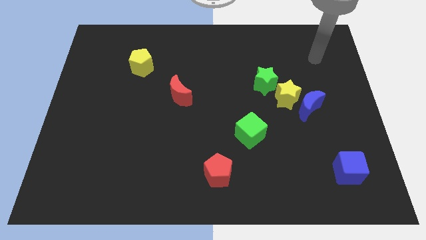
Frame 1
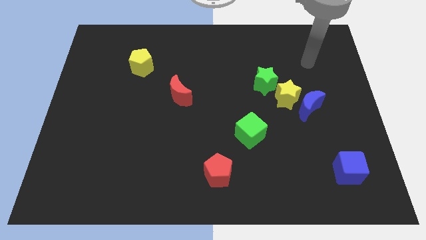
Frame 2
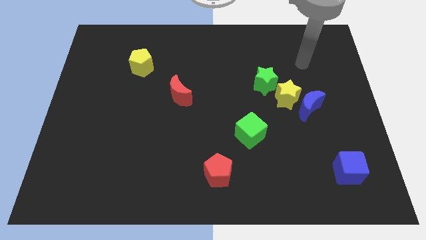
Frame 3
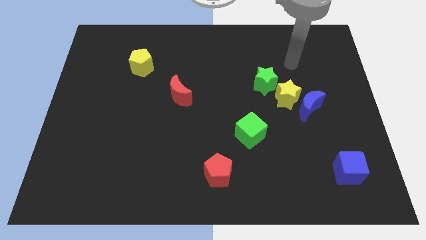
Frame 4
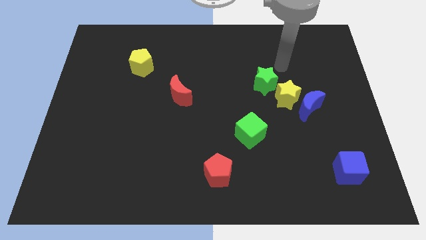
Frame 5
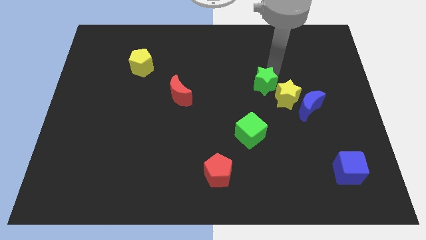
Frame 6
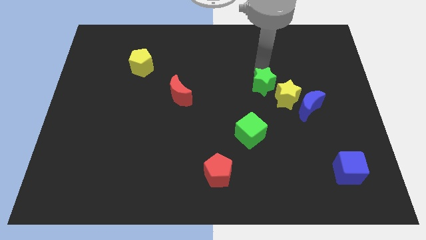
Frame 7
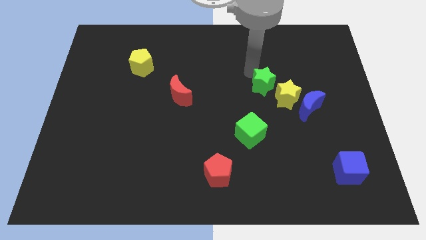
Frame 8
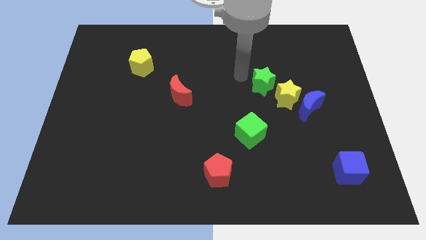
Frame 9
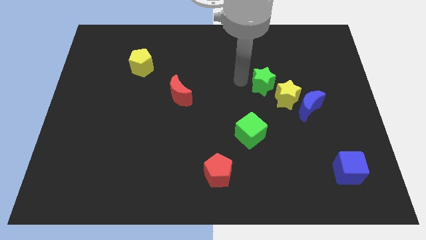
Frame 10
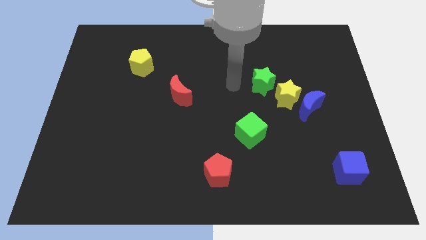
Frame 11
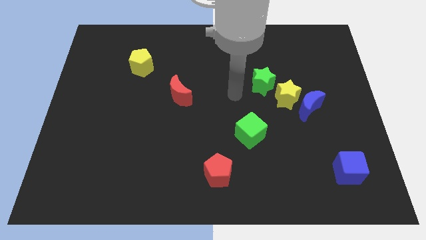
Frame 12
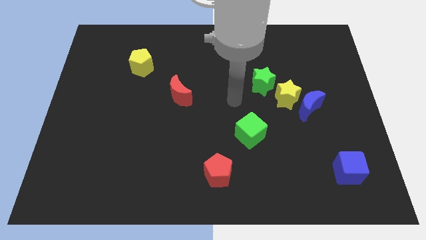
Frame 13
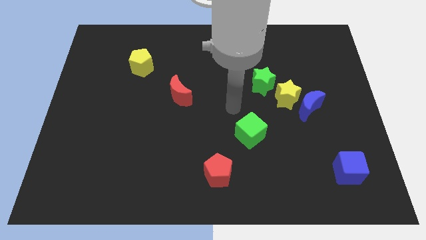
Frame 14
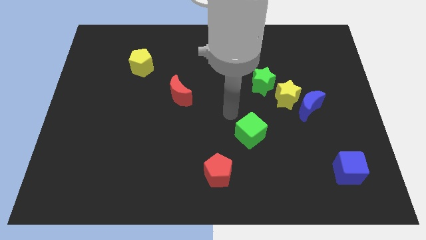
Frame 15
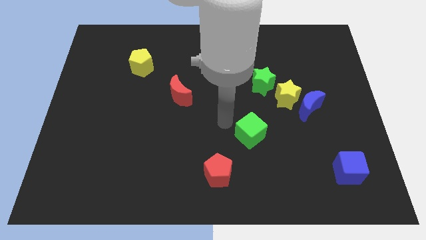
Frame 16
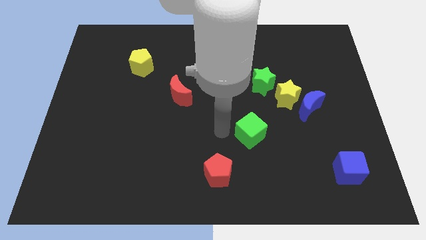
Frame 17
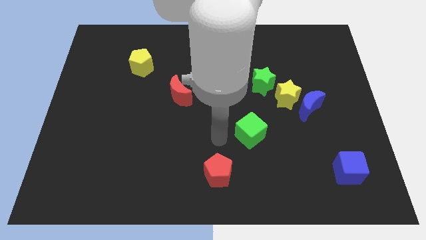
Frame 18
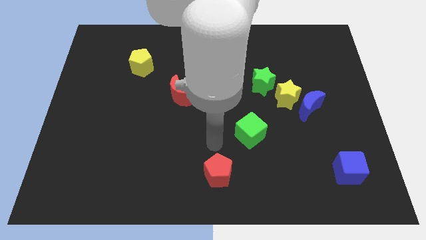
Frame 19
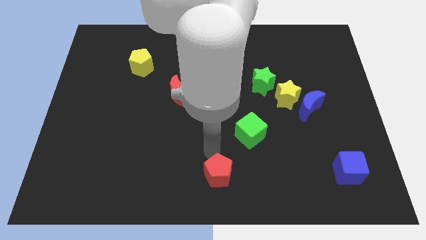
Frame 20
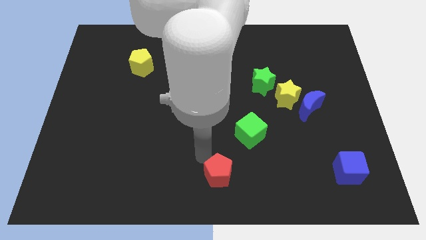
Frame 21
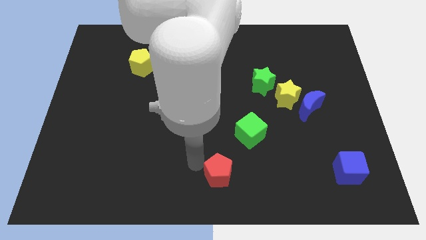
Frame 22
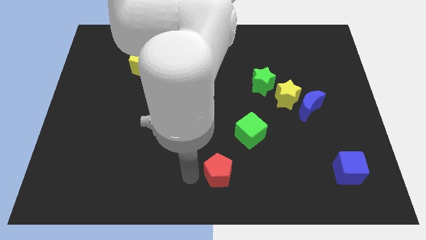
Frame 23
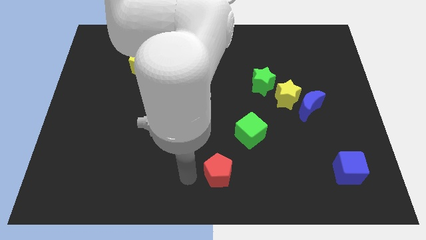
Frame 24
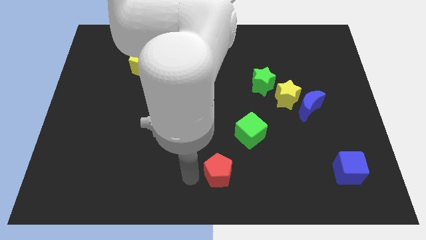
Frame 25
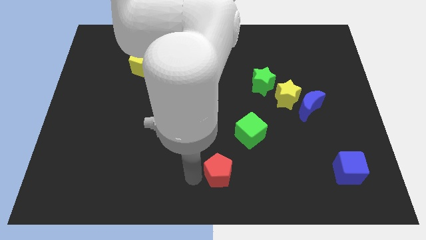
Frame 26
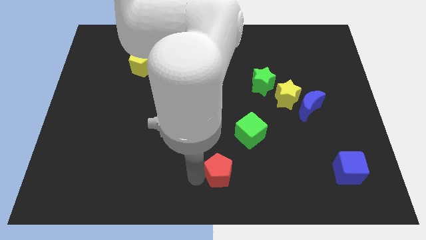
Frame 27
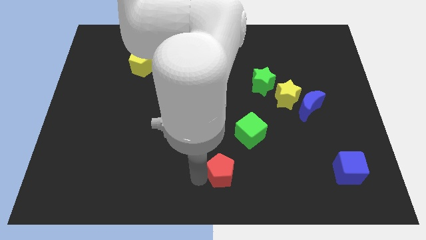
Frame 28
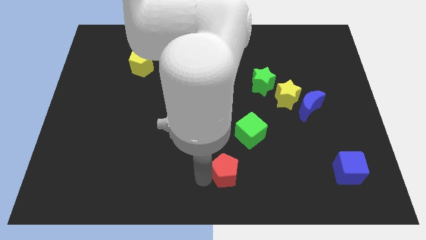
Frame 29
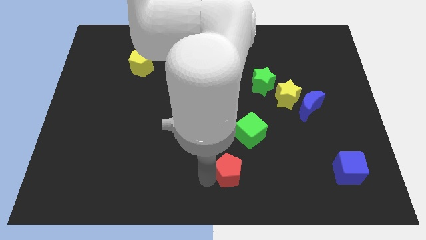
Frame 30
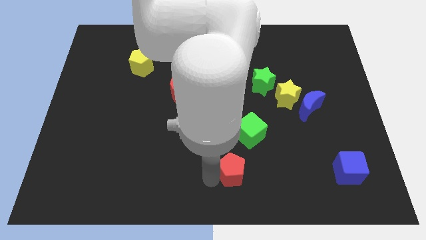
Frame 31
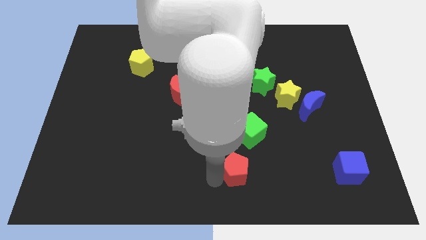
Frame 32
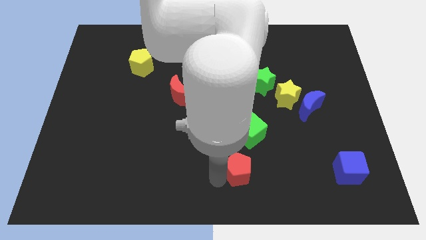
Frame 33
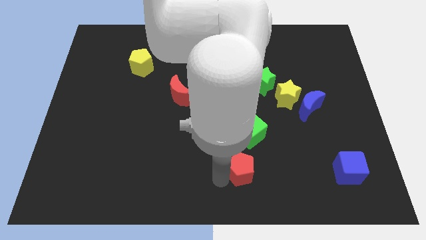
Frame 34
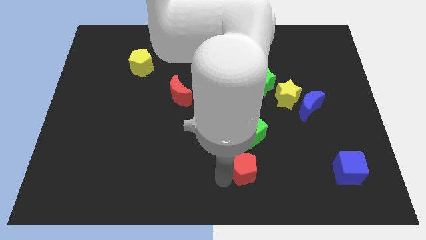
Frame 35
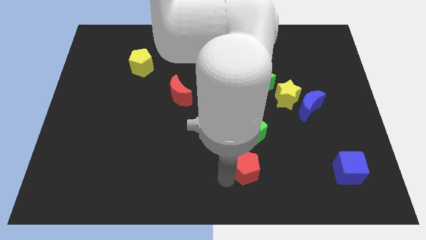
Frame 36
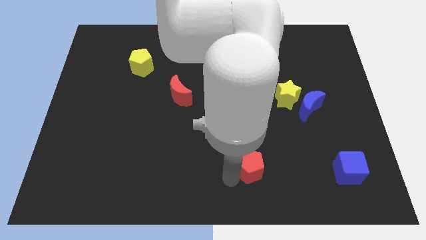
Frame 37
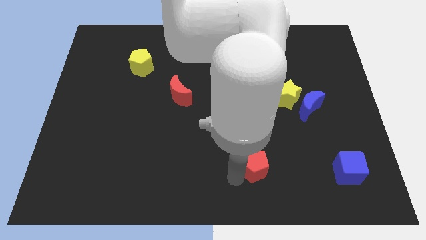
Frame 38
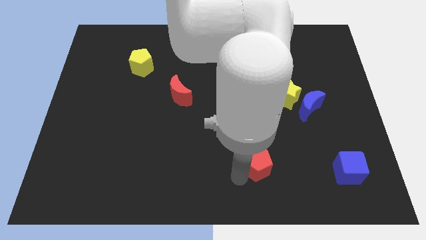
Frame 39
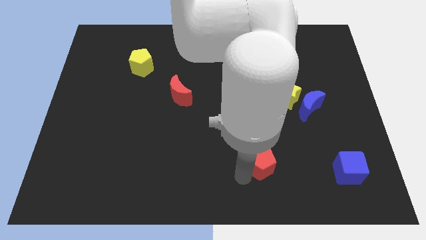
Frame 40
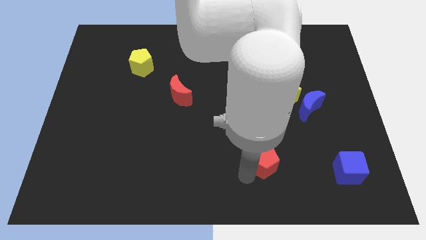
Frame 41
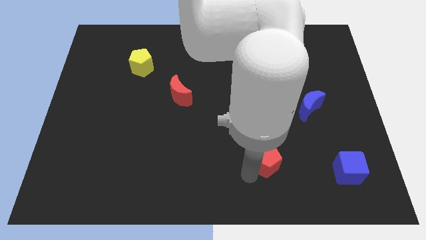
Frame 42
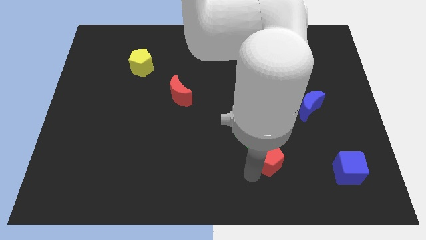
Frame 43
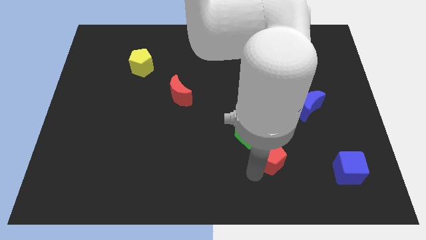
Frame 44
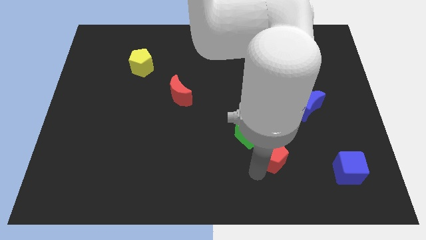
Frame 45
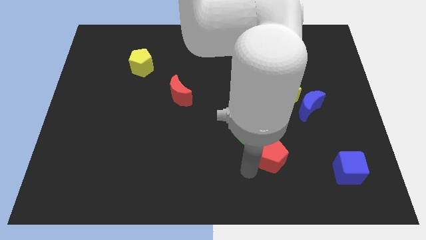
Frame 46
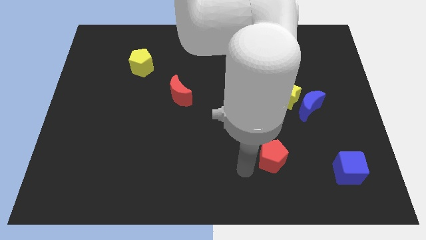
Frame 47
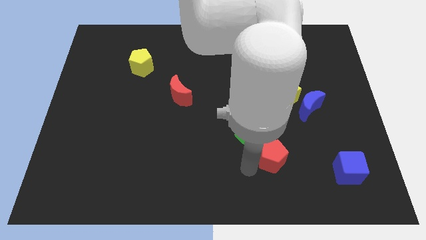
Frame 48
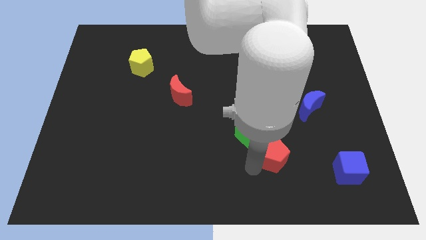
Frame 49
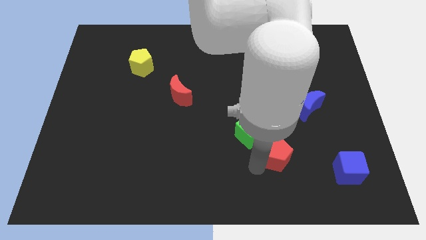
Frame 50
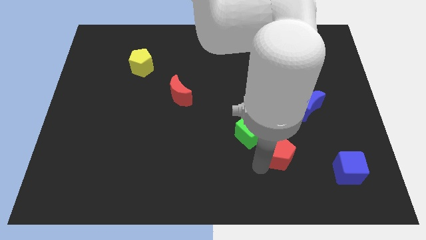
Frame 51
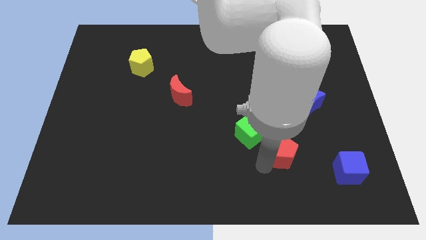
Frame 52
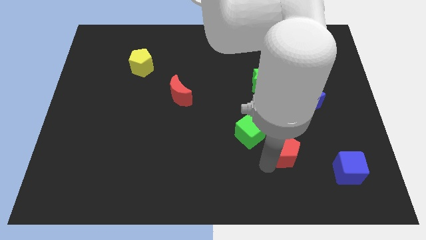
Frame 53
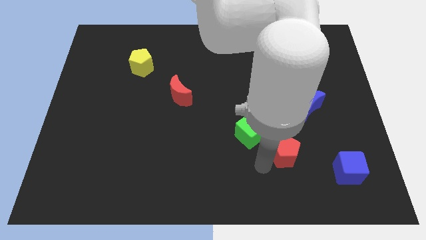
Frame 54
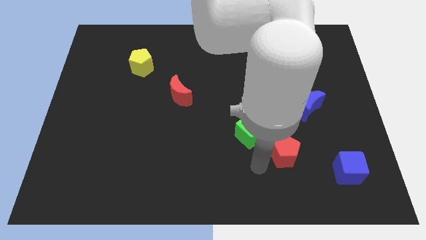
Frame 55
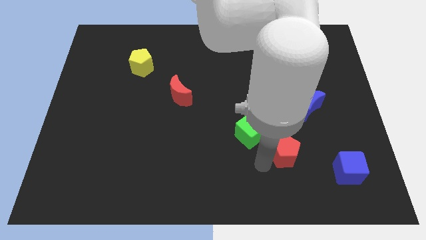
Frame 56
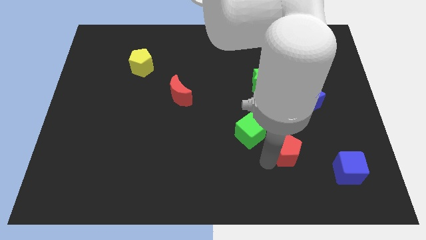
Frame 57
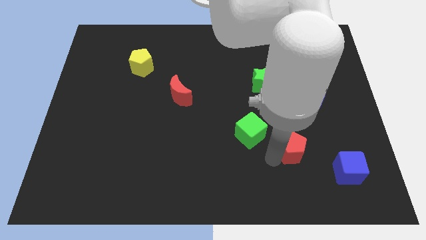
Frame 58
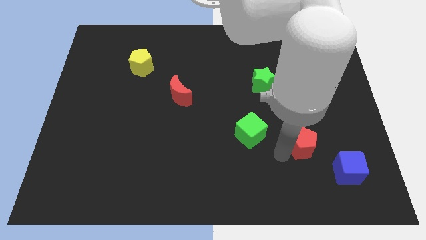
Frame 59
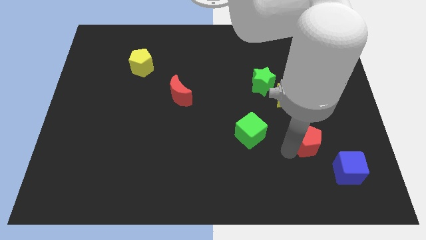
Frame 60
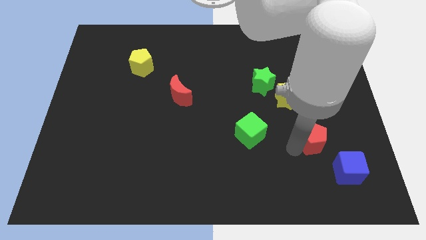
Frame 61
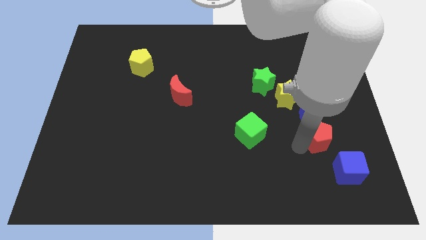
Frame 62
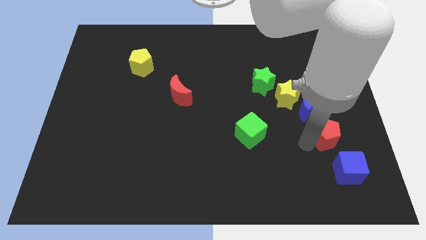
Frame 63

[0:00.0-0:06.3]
push the red pentagon to the bottom right of the blue moon

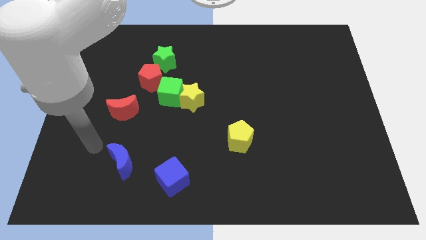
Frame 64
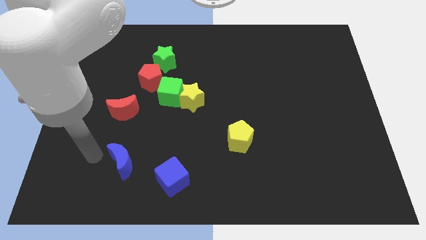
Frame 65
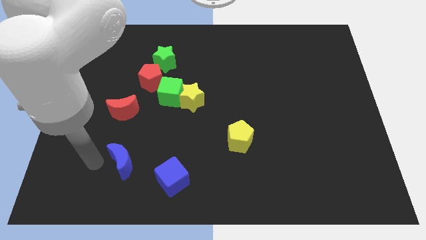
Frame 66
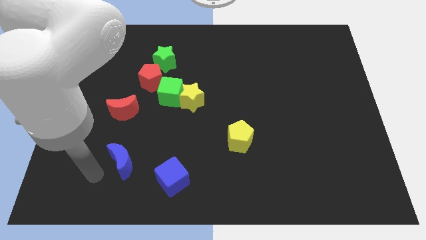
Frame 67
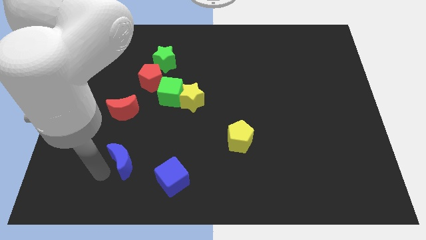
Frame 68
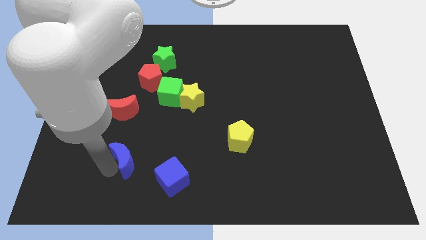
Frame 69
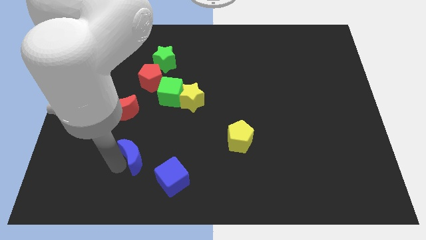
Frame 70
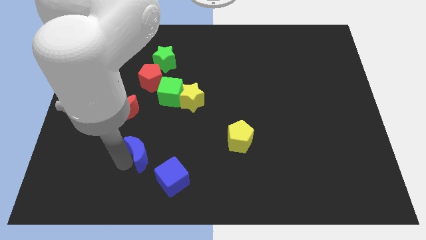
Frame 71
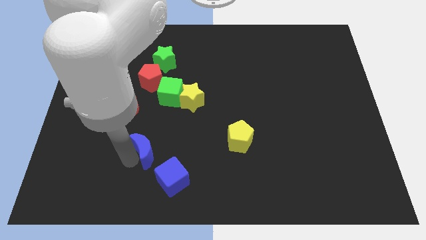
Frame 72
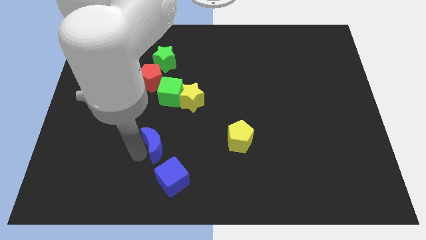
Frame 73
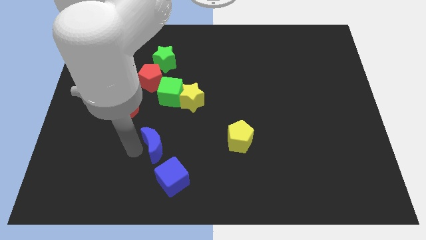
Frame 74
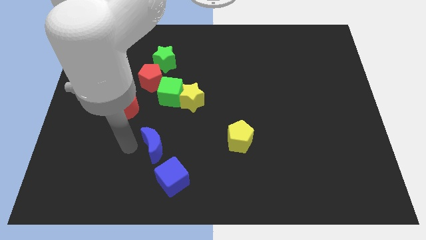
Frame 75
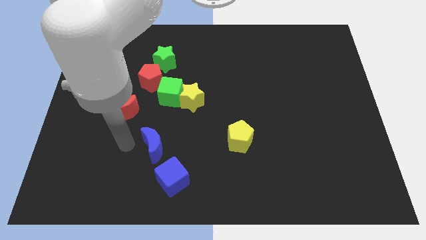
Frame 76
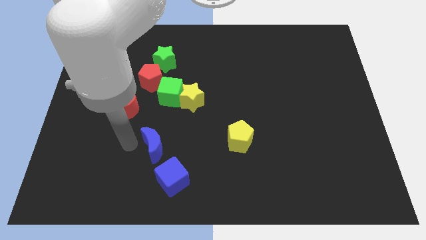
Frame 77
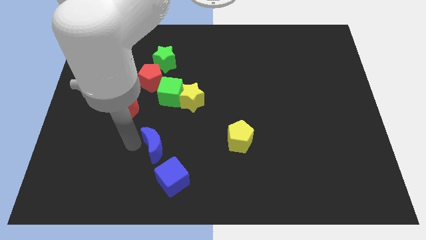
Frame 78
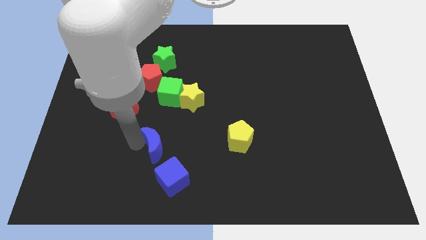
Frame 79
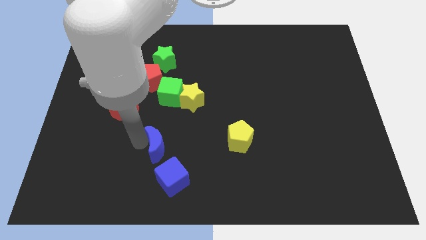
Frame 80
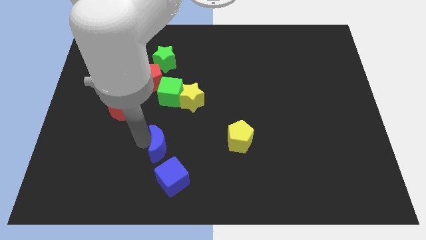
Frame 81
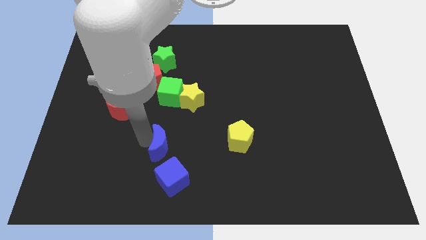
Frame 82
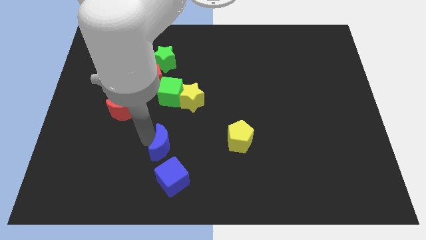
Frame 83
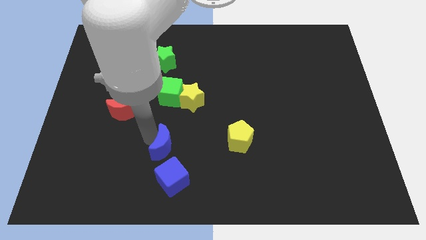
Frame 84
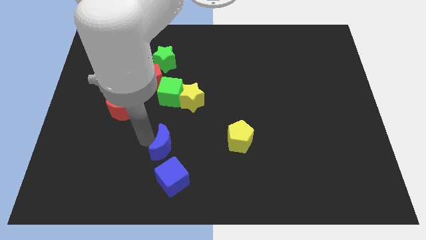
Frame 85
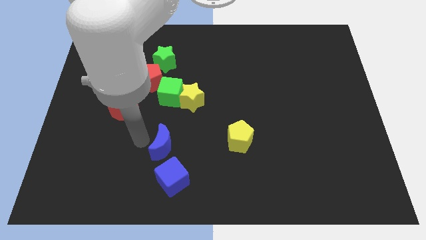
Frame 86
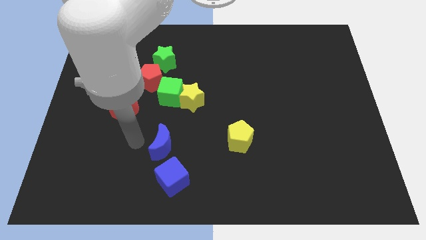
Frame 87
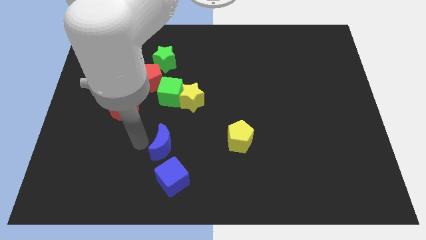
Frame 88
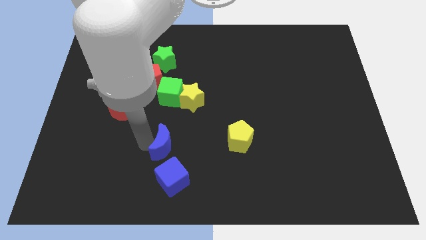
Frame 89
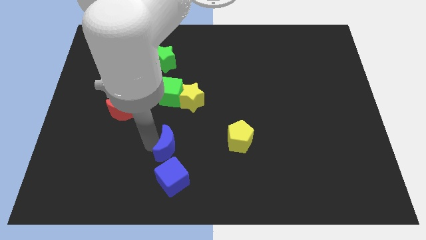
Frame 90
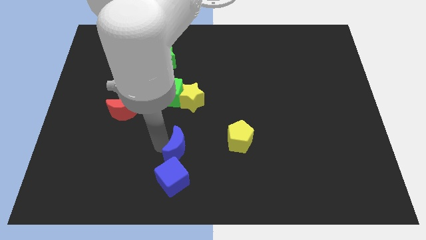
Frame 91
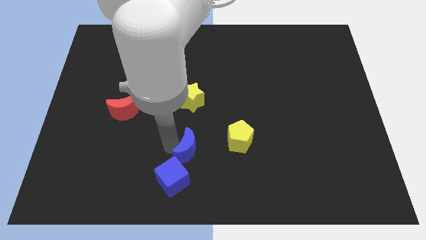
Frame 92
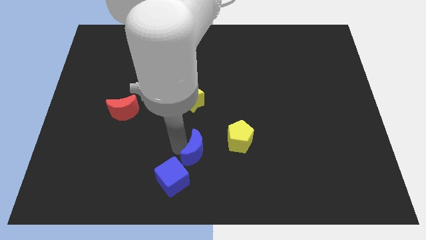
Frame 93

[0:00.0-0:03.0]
slide the blue moon diagonally down and to the left of the yellow pentagon
